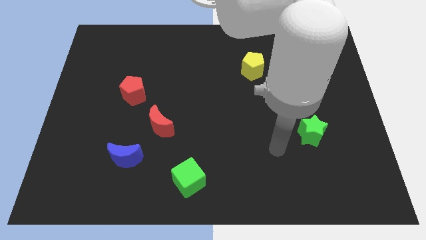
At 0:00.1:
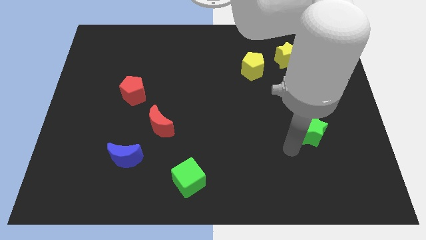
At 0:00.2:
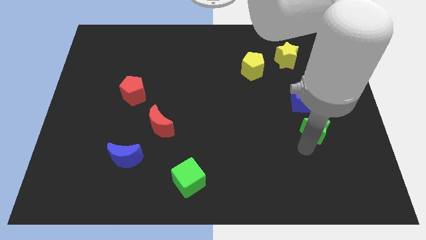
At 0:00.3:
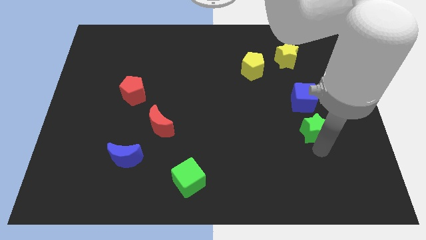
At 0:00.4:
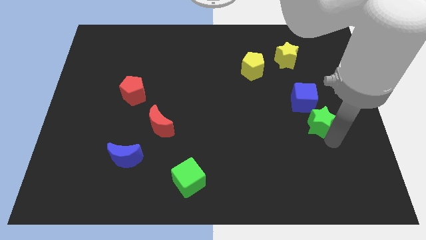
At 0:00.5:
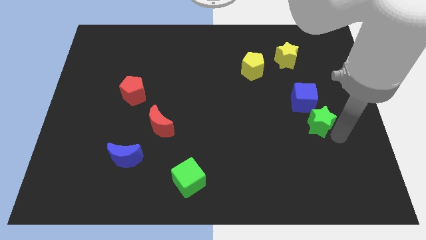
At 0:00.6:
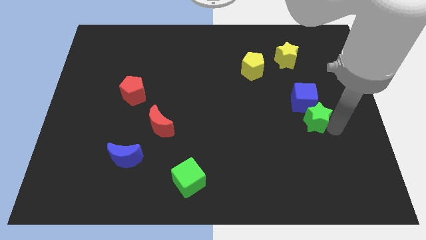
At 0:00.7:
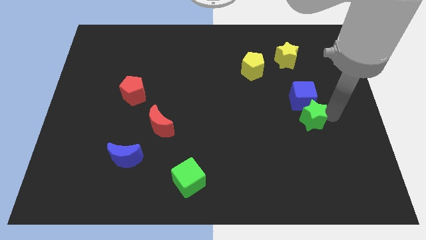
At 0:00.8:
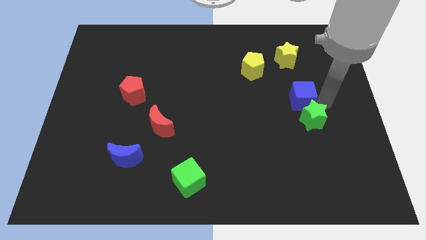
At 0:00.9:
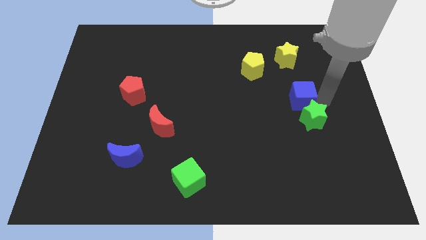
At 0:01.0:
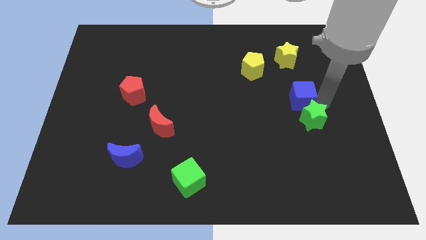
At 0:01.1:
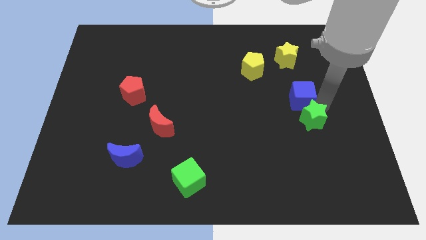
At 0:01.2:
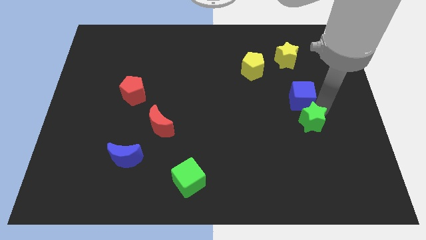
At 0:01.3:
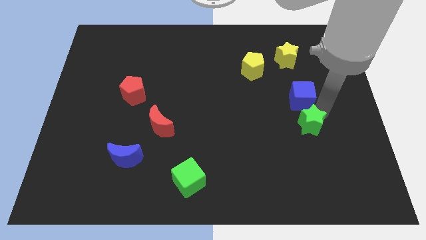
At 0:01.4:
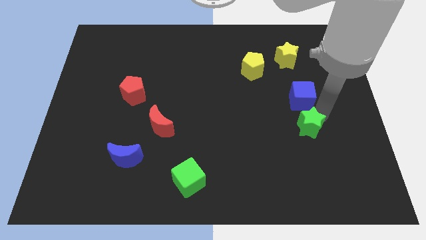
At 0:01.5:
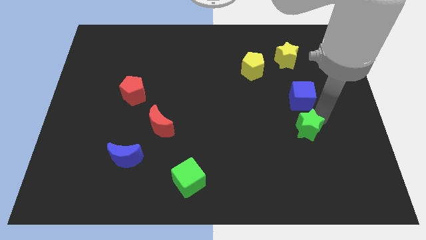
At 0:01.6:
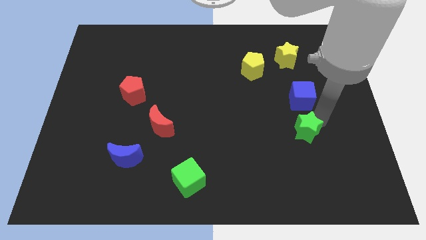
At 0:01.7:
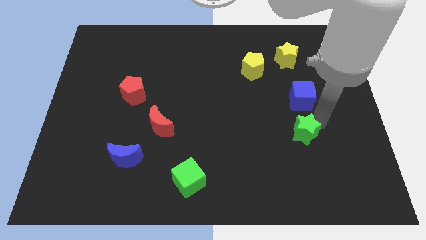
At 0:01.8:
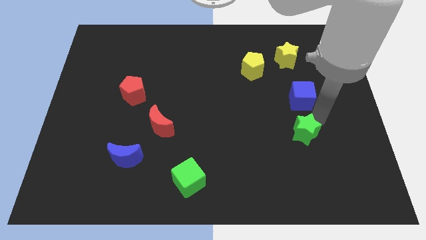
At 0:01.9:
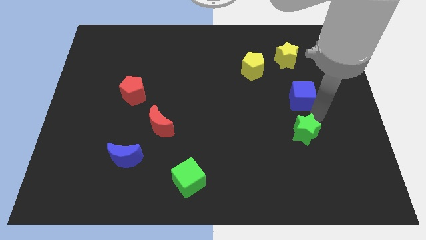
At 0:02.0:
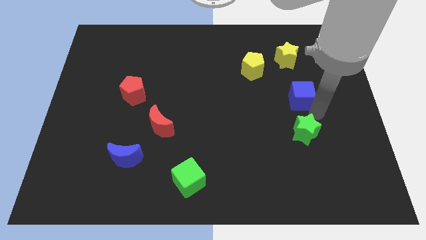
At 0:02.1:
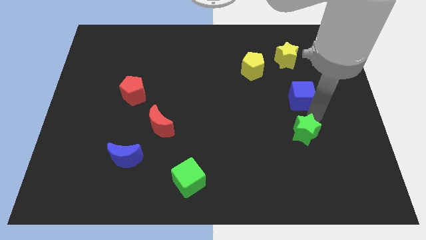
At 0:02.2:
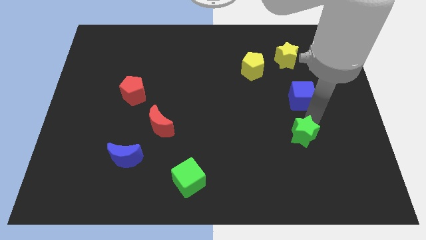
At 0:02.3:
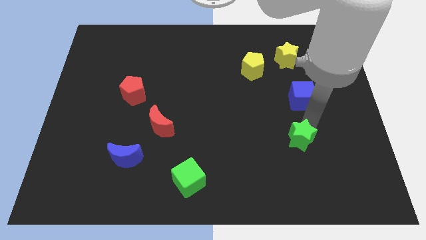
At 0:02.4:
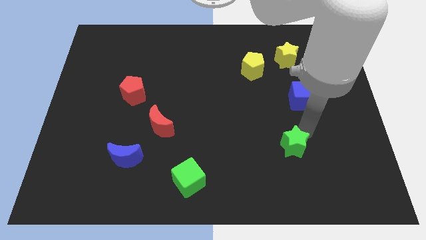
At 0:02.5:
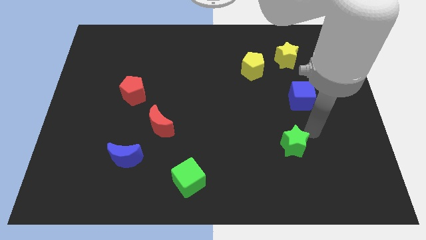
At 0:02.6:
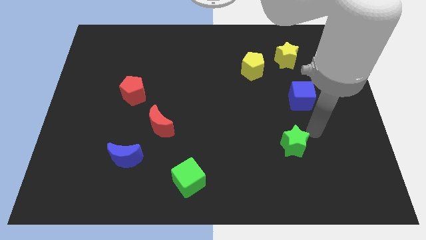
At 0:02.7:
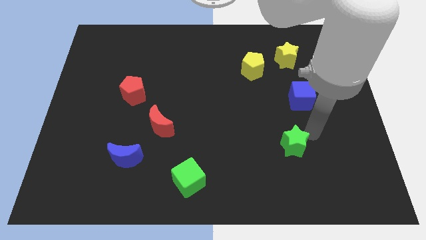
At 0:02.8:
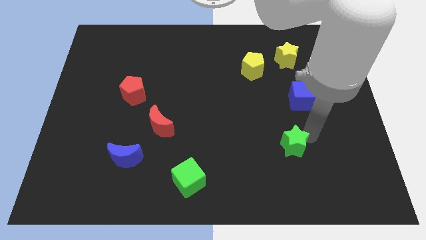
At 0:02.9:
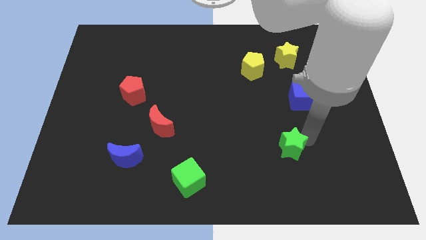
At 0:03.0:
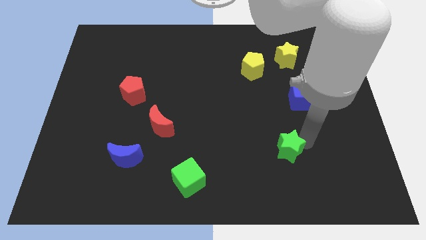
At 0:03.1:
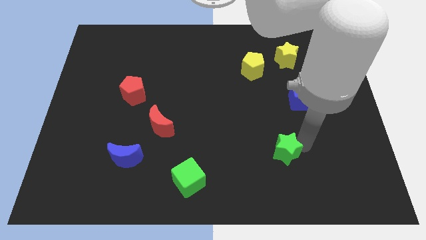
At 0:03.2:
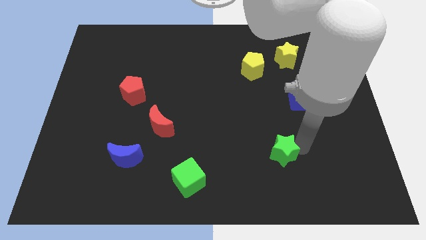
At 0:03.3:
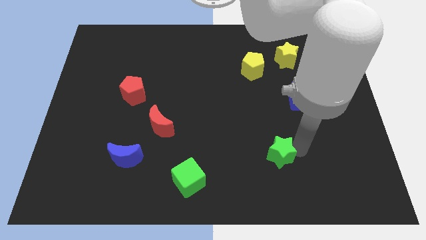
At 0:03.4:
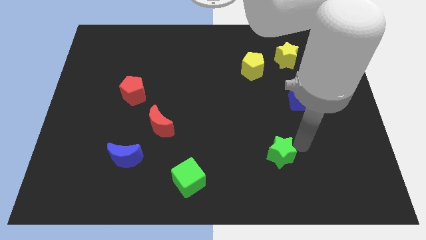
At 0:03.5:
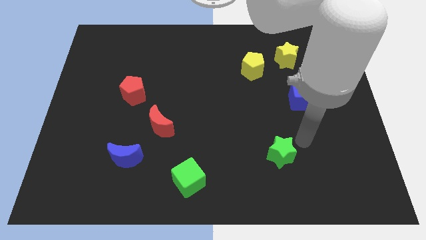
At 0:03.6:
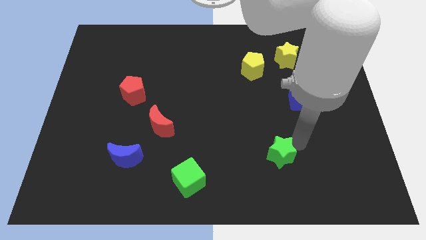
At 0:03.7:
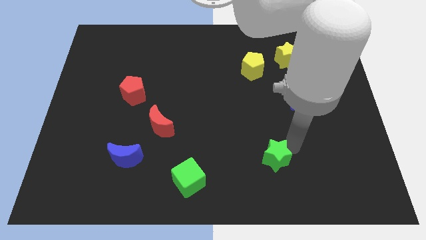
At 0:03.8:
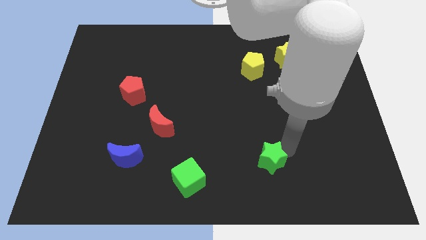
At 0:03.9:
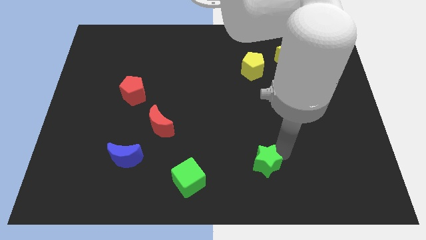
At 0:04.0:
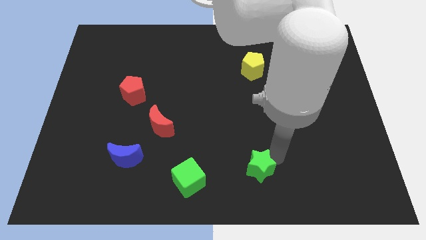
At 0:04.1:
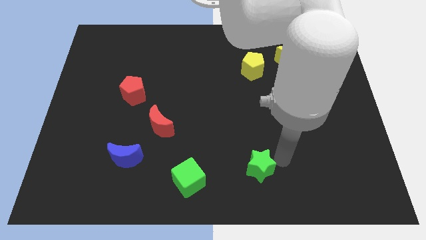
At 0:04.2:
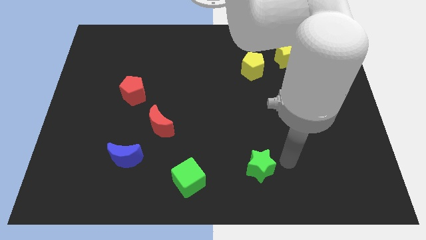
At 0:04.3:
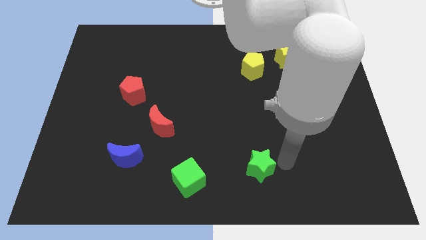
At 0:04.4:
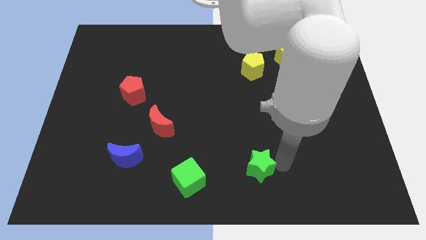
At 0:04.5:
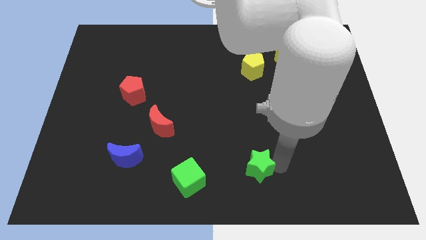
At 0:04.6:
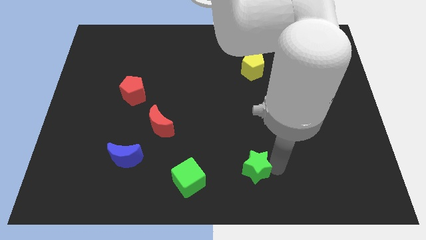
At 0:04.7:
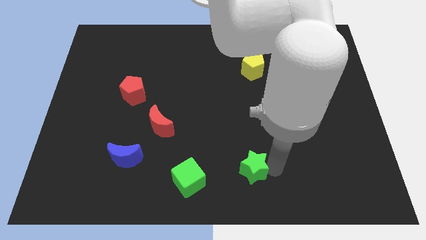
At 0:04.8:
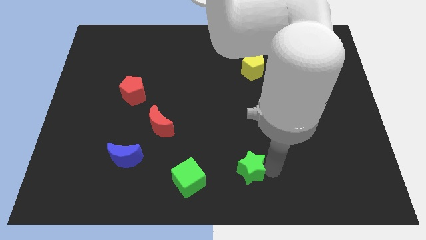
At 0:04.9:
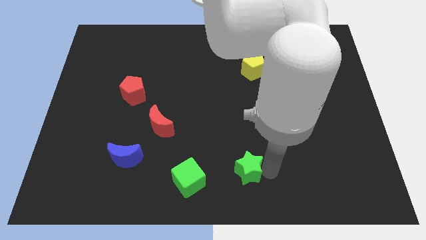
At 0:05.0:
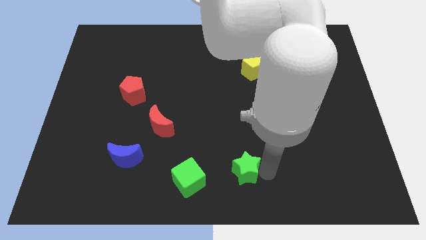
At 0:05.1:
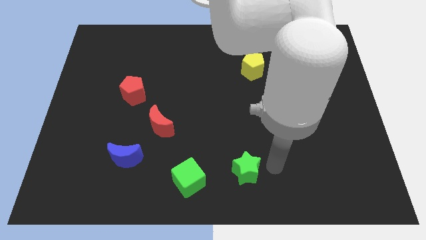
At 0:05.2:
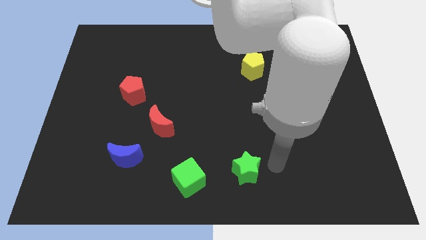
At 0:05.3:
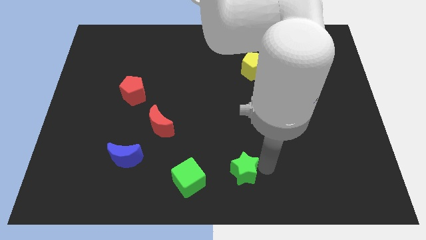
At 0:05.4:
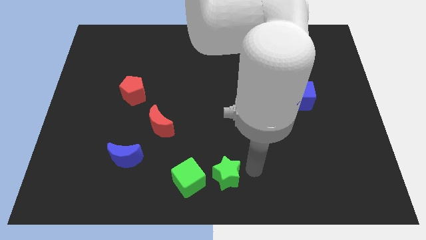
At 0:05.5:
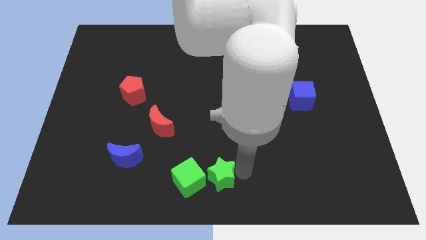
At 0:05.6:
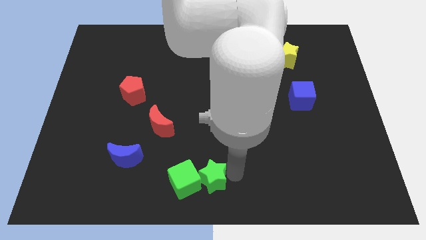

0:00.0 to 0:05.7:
slide the green star towards the green cube

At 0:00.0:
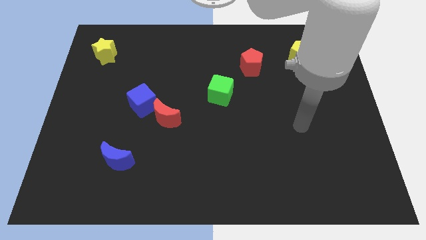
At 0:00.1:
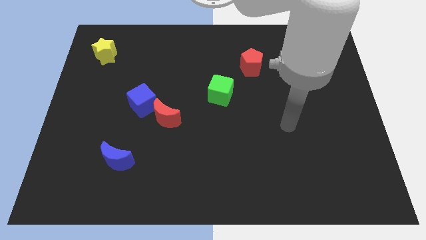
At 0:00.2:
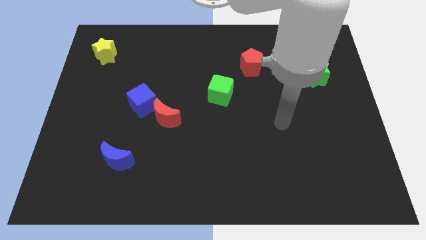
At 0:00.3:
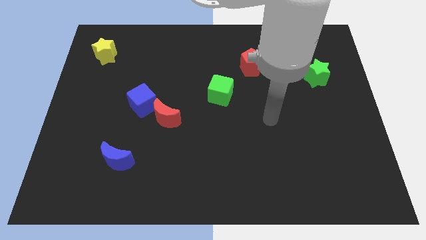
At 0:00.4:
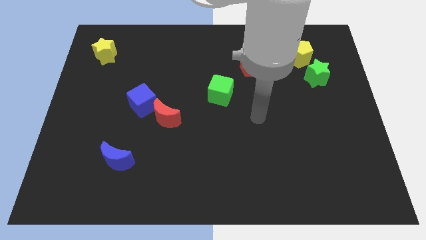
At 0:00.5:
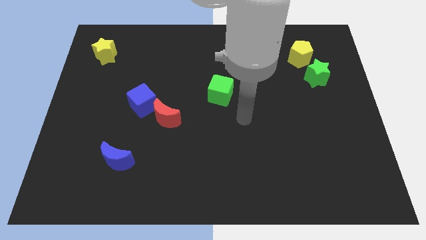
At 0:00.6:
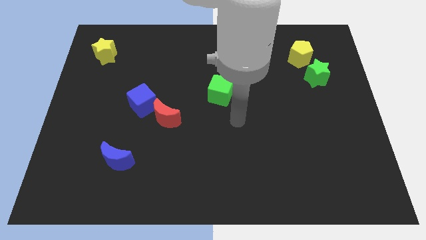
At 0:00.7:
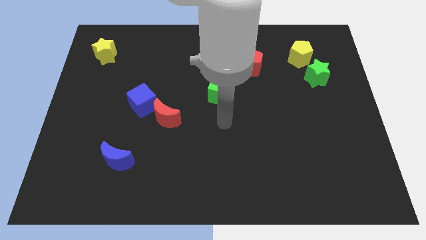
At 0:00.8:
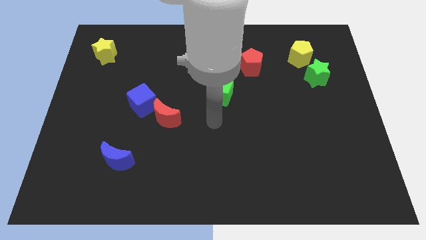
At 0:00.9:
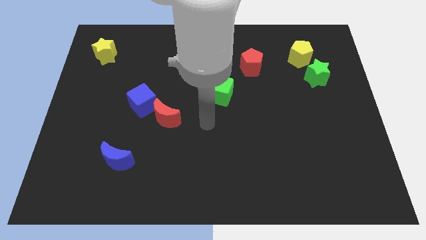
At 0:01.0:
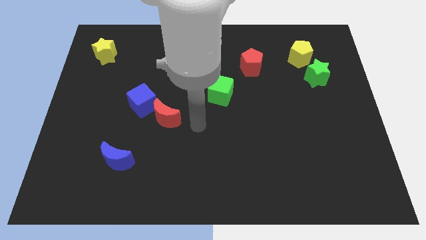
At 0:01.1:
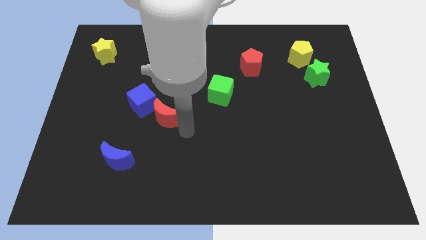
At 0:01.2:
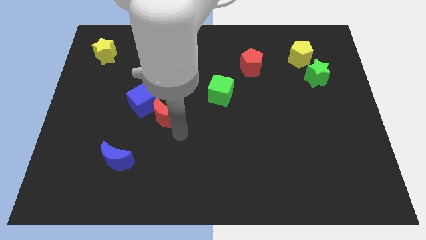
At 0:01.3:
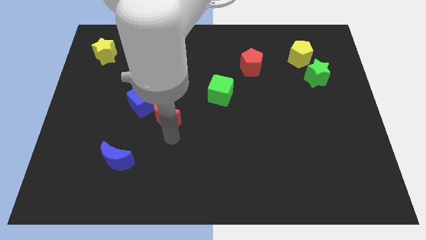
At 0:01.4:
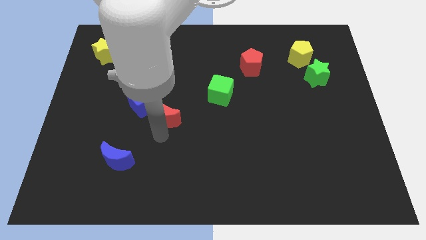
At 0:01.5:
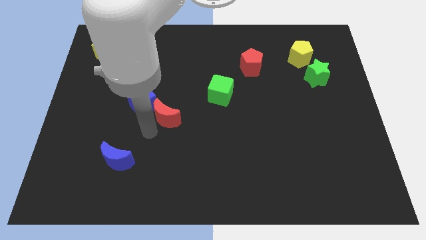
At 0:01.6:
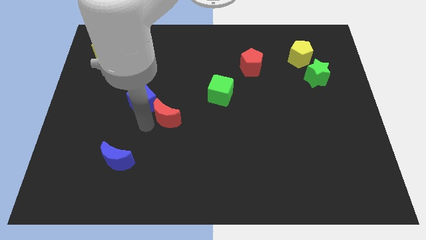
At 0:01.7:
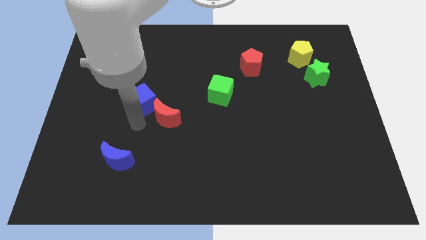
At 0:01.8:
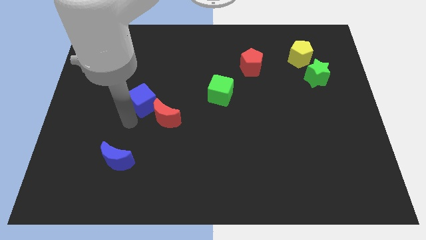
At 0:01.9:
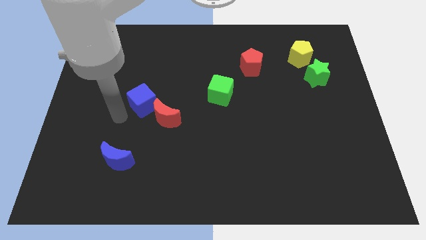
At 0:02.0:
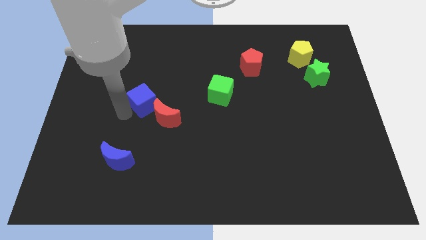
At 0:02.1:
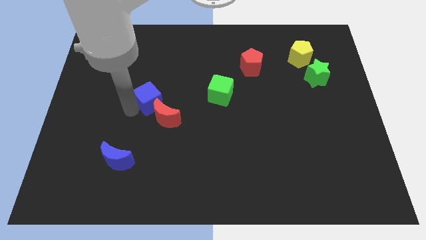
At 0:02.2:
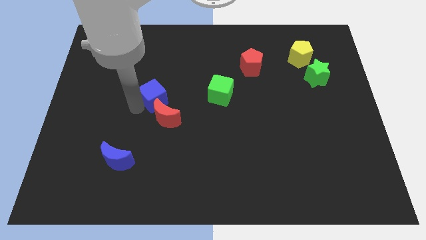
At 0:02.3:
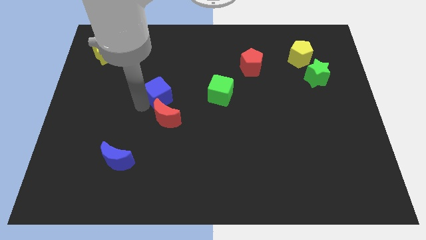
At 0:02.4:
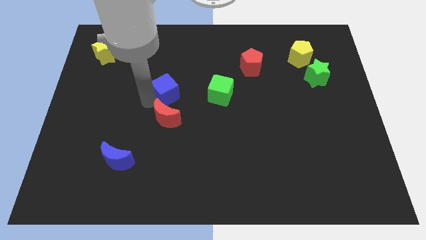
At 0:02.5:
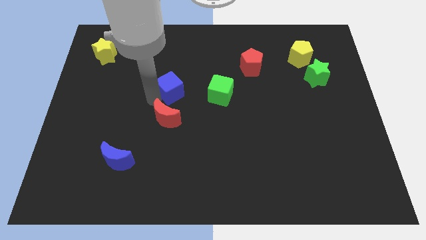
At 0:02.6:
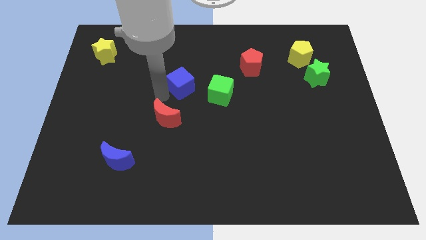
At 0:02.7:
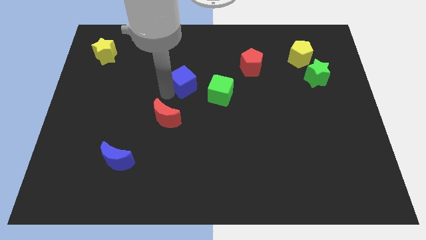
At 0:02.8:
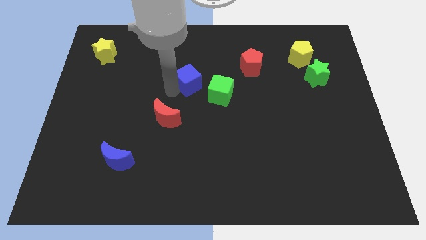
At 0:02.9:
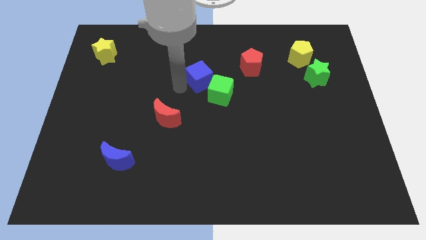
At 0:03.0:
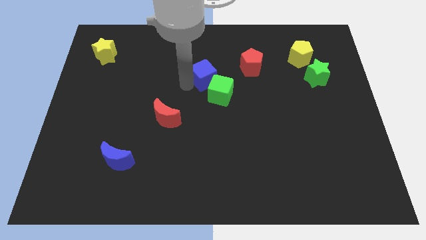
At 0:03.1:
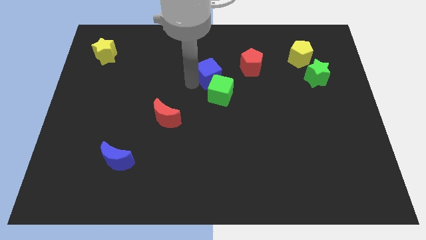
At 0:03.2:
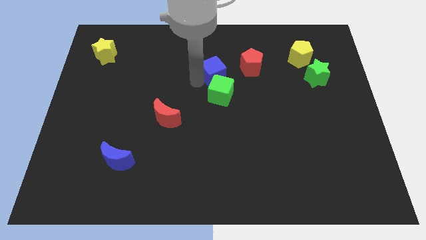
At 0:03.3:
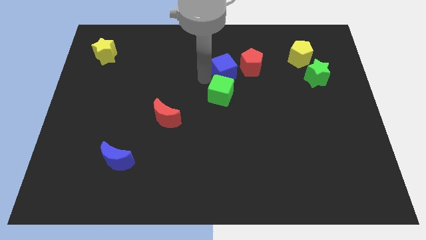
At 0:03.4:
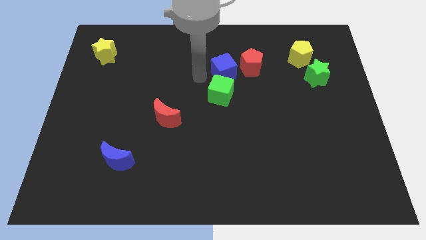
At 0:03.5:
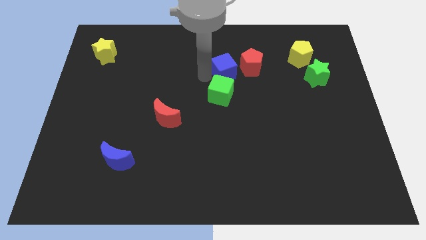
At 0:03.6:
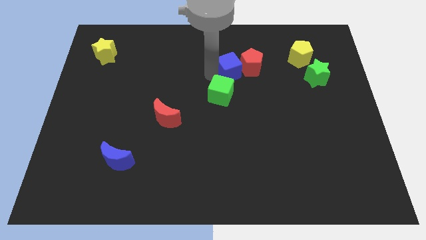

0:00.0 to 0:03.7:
push the blue cube towards the red pentagon
